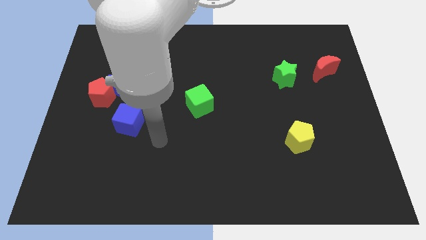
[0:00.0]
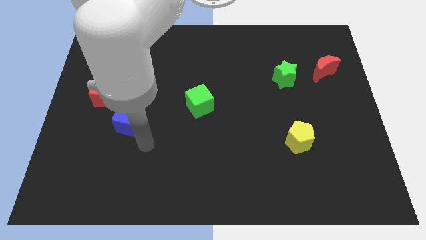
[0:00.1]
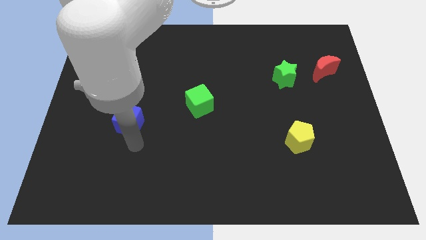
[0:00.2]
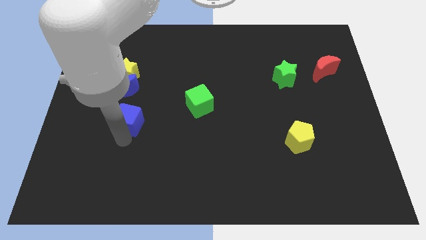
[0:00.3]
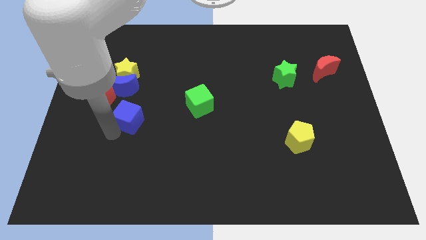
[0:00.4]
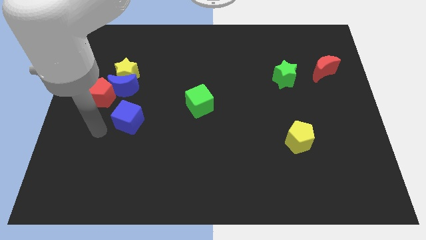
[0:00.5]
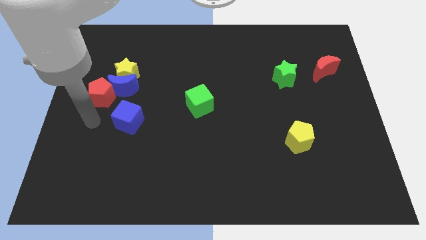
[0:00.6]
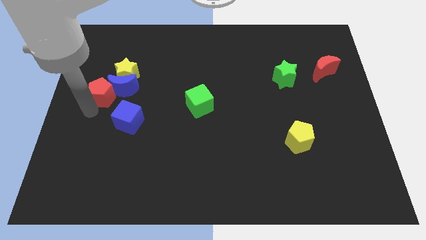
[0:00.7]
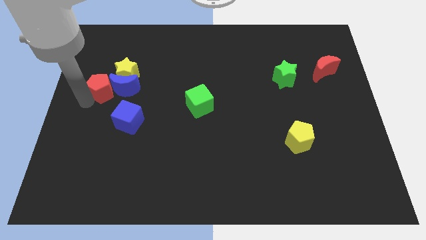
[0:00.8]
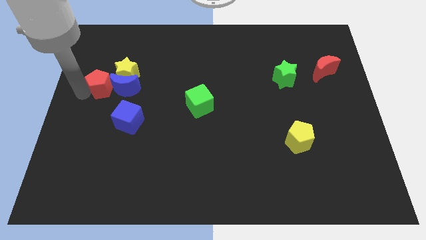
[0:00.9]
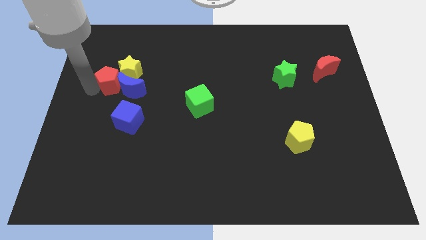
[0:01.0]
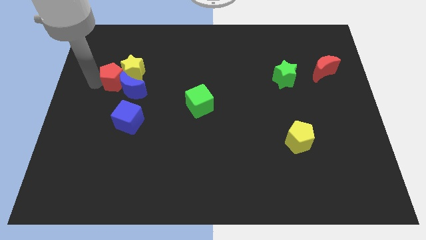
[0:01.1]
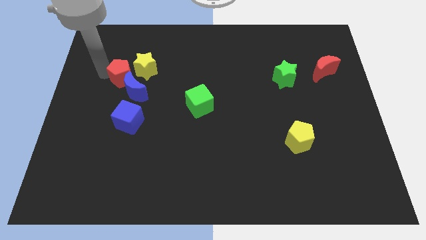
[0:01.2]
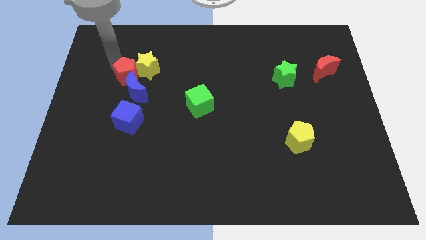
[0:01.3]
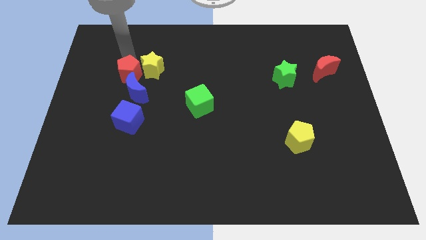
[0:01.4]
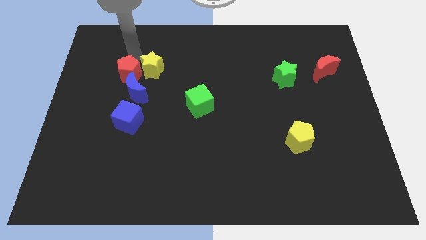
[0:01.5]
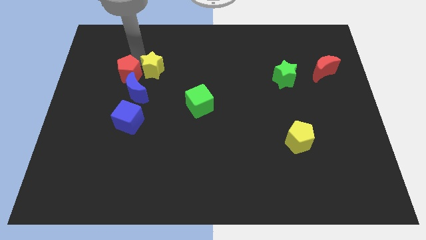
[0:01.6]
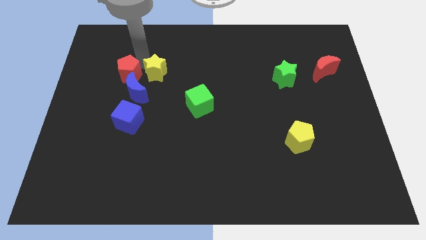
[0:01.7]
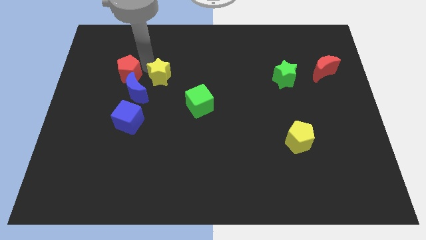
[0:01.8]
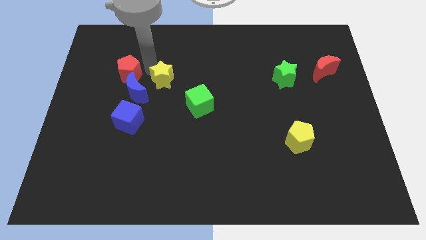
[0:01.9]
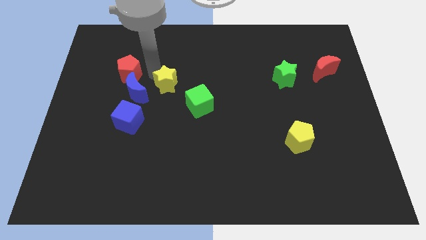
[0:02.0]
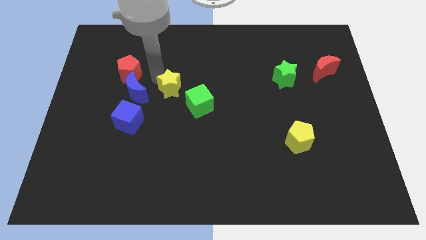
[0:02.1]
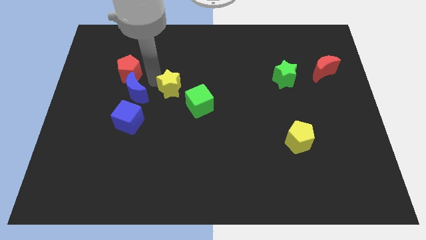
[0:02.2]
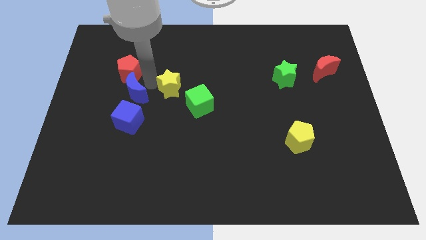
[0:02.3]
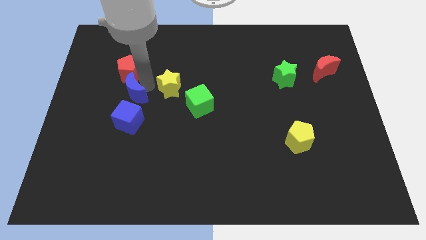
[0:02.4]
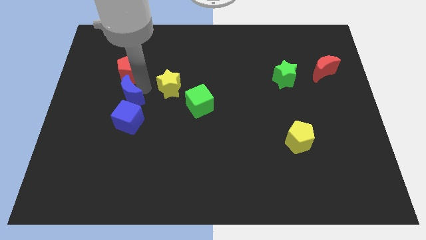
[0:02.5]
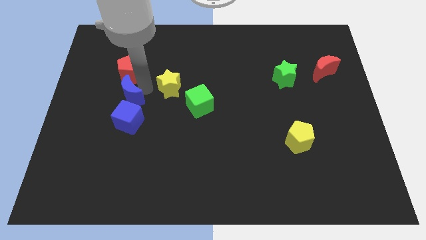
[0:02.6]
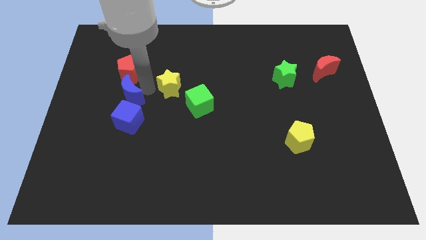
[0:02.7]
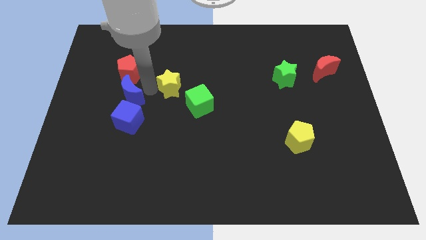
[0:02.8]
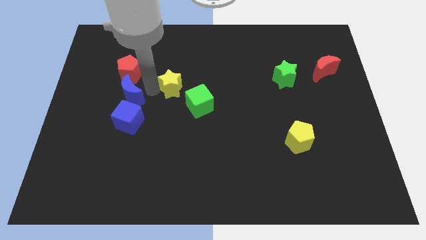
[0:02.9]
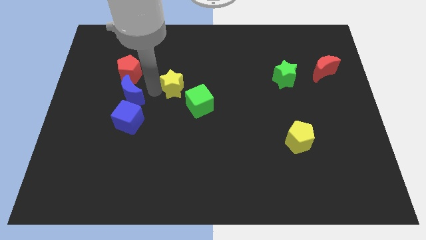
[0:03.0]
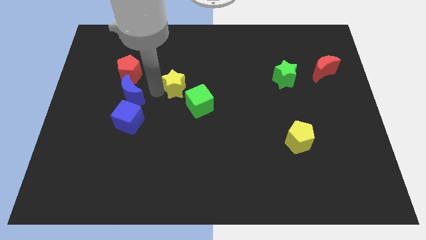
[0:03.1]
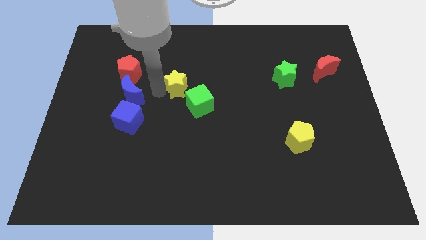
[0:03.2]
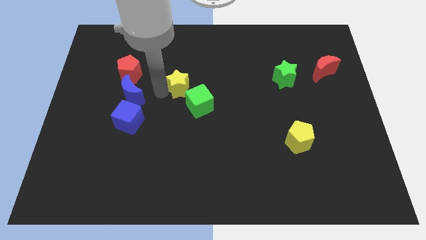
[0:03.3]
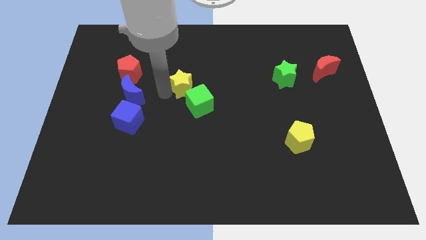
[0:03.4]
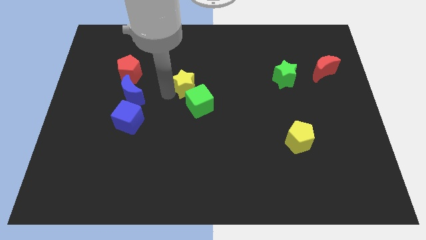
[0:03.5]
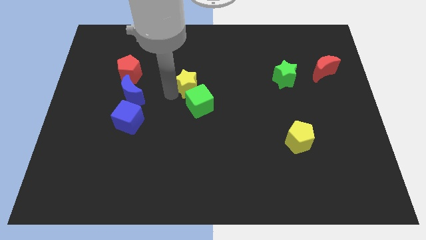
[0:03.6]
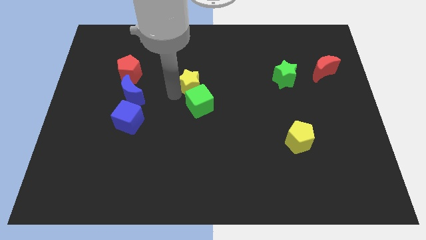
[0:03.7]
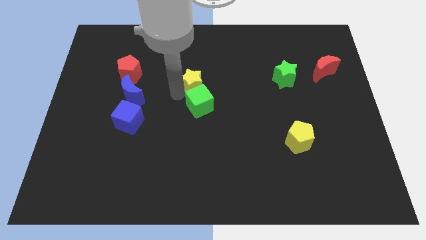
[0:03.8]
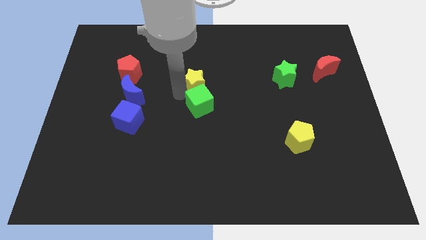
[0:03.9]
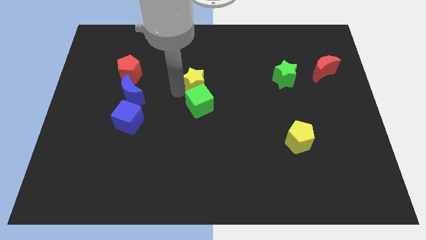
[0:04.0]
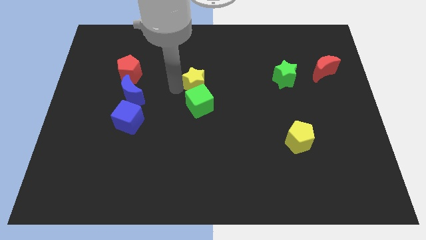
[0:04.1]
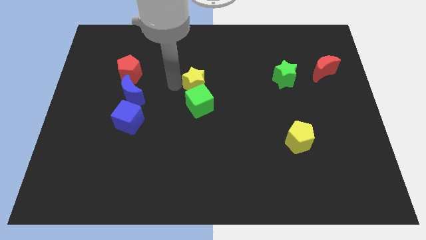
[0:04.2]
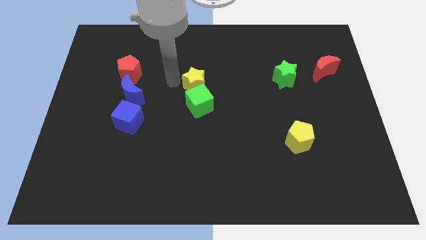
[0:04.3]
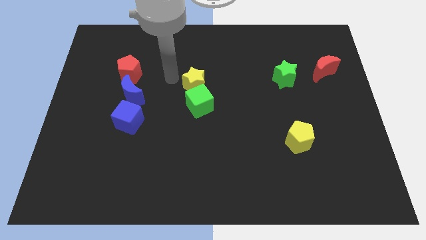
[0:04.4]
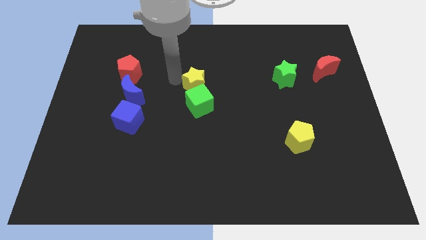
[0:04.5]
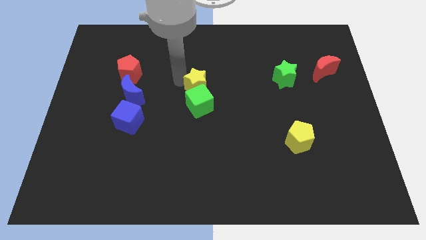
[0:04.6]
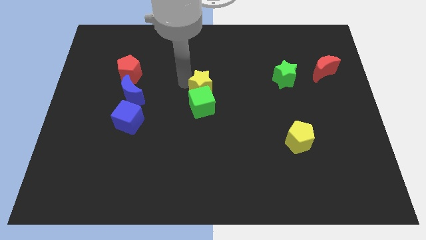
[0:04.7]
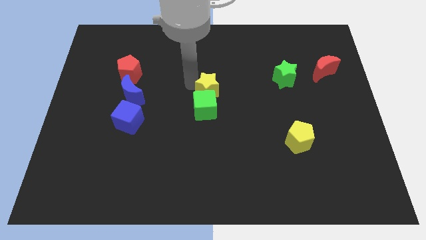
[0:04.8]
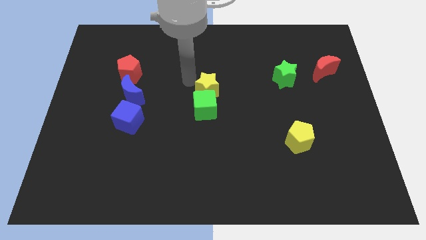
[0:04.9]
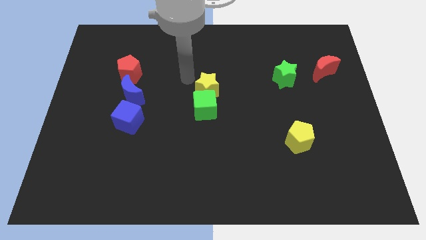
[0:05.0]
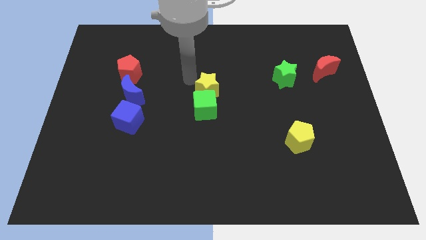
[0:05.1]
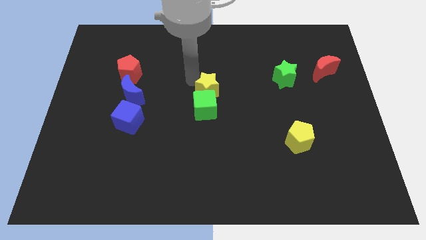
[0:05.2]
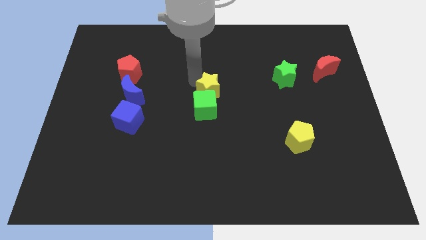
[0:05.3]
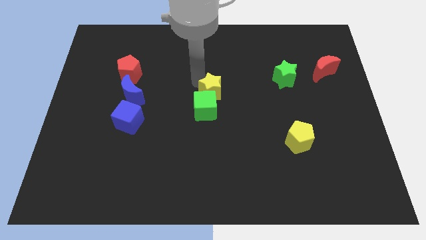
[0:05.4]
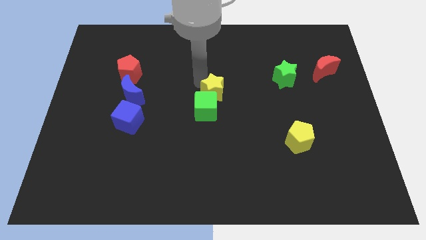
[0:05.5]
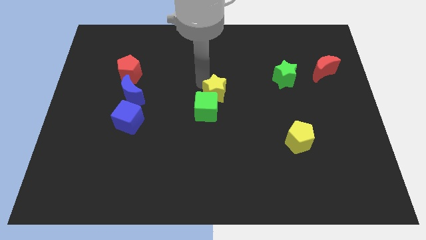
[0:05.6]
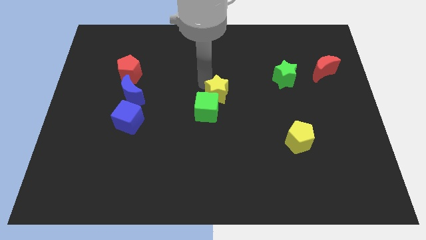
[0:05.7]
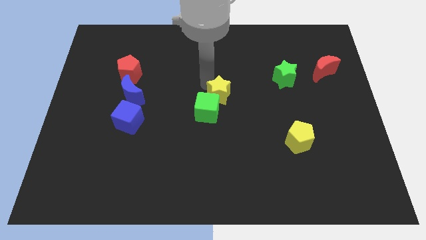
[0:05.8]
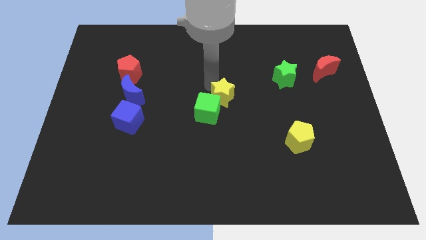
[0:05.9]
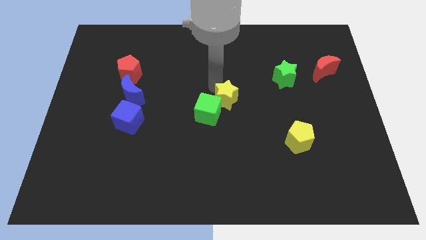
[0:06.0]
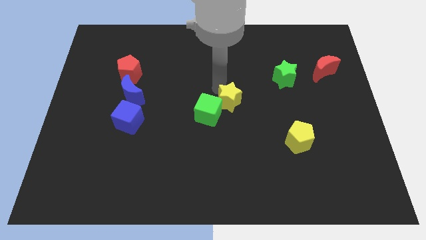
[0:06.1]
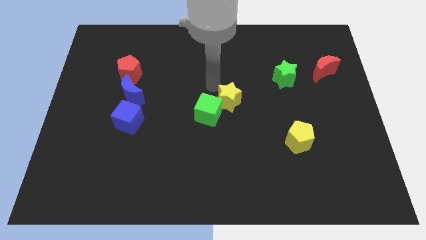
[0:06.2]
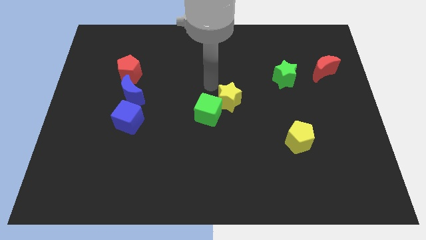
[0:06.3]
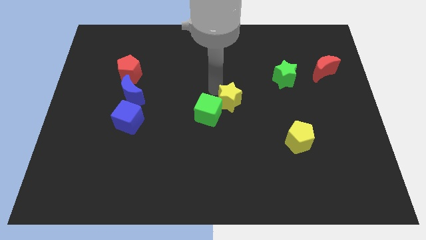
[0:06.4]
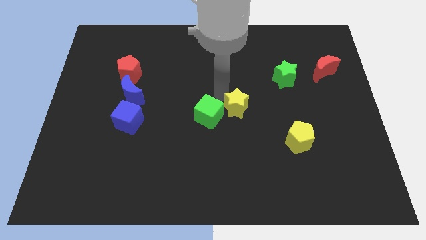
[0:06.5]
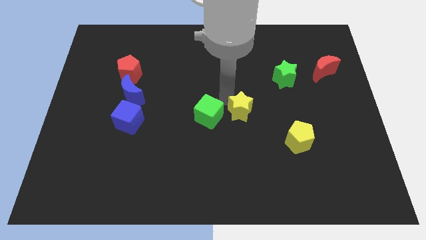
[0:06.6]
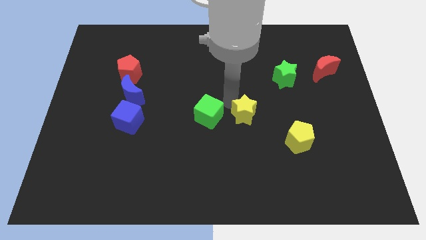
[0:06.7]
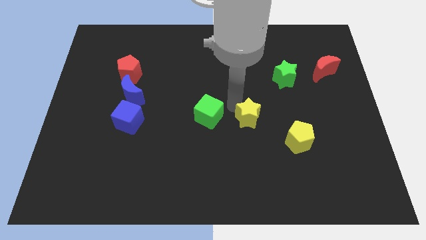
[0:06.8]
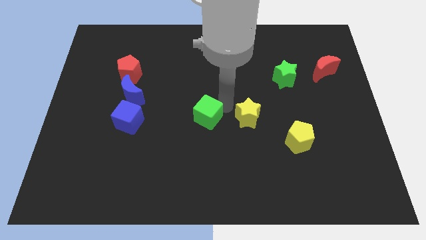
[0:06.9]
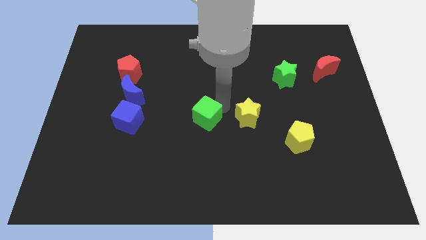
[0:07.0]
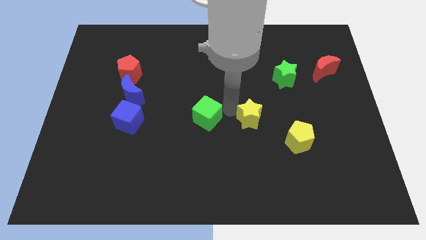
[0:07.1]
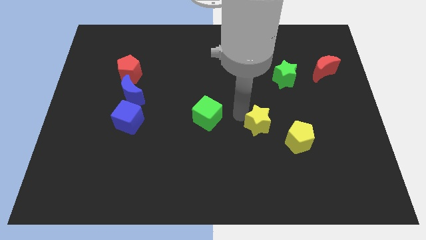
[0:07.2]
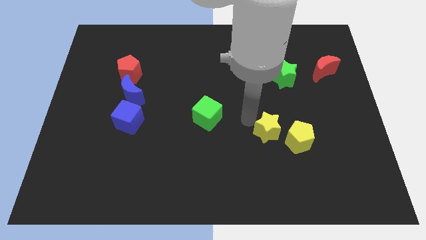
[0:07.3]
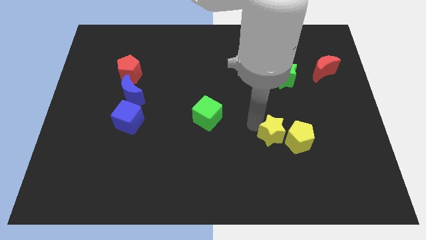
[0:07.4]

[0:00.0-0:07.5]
move the yellow star next to the yellow pentagon
